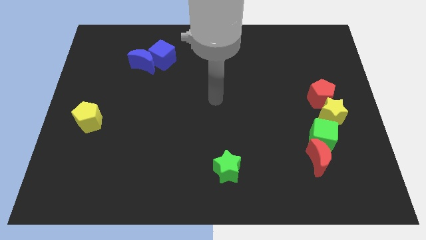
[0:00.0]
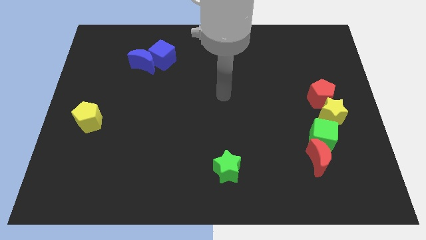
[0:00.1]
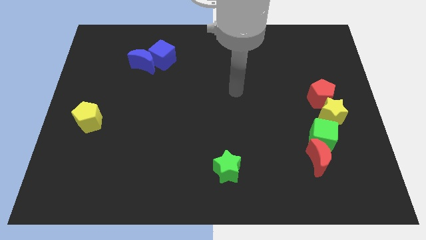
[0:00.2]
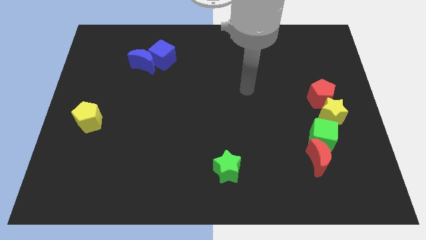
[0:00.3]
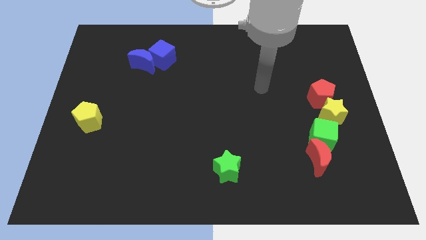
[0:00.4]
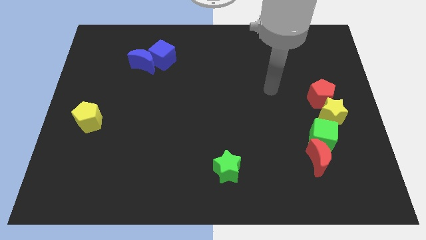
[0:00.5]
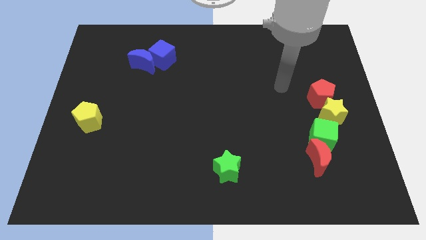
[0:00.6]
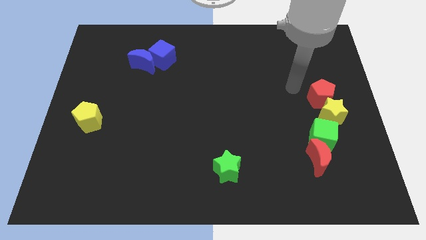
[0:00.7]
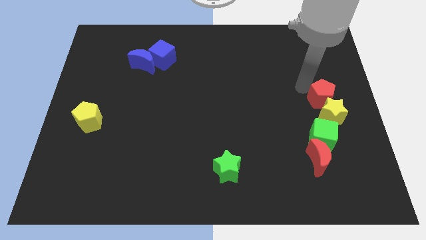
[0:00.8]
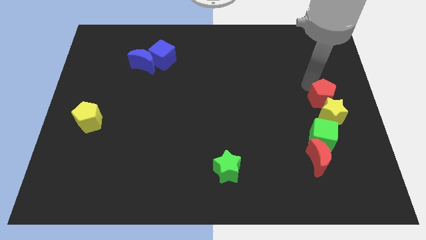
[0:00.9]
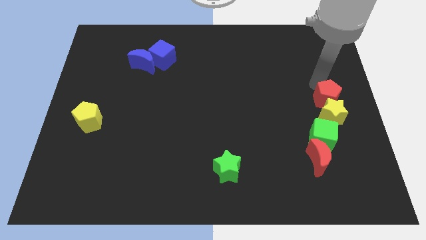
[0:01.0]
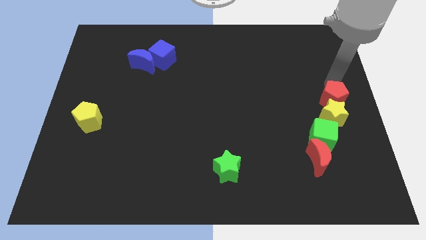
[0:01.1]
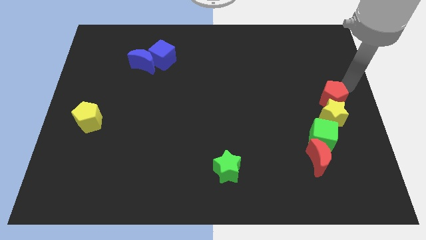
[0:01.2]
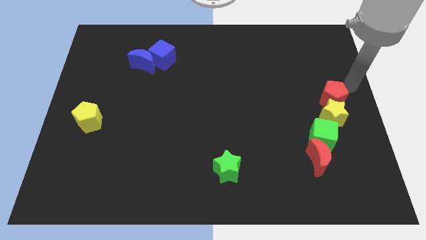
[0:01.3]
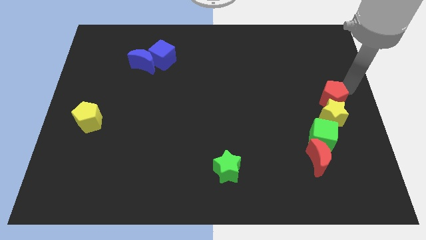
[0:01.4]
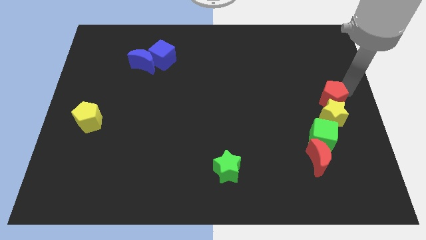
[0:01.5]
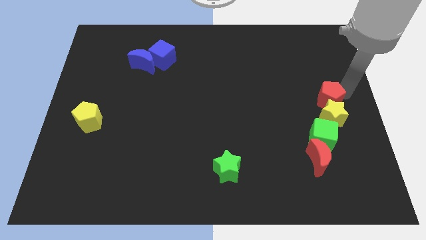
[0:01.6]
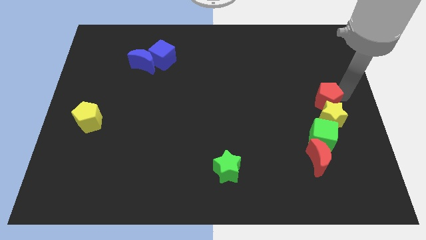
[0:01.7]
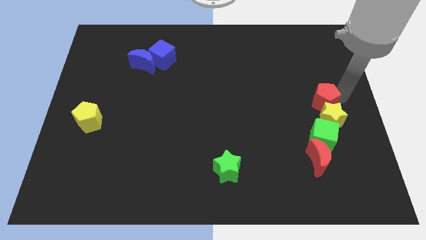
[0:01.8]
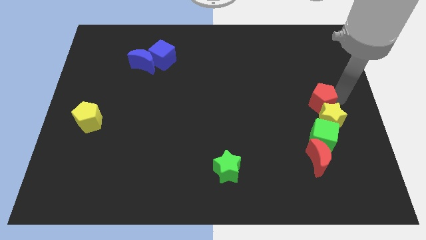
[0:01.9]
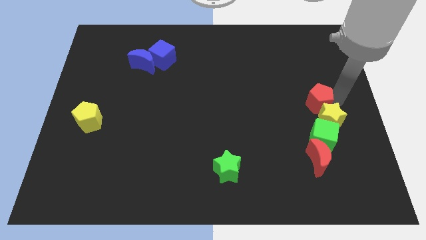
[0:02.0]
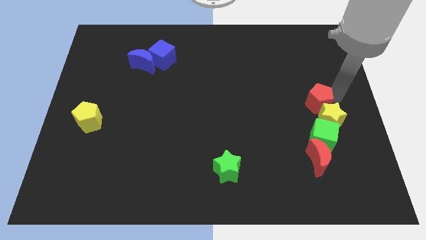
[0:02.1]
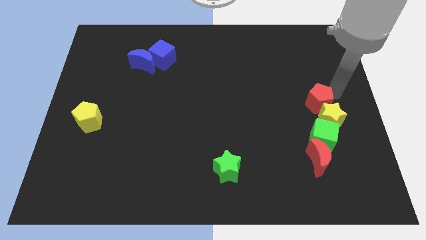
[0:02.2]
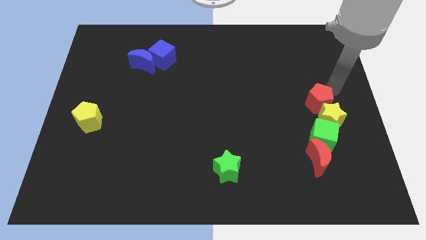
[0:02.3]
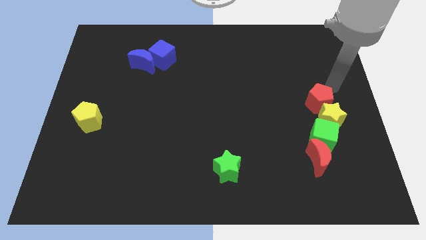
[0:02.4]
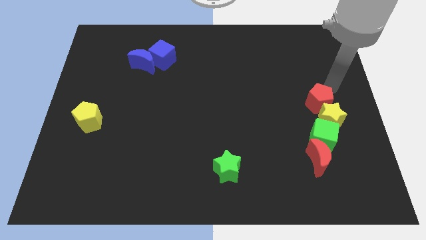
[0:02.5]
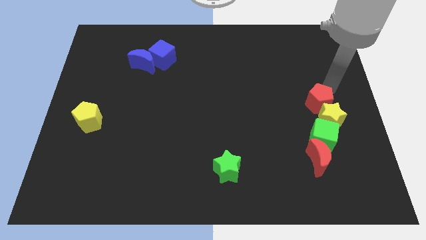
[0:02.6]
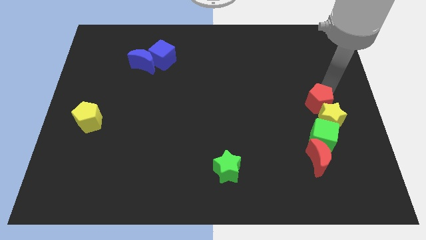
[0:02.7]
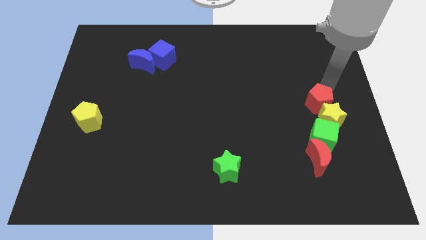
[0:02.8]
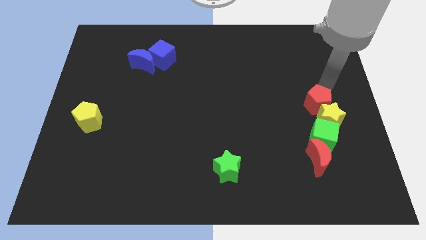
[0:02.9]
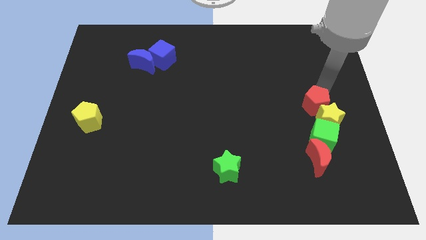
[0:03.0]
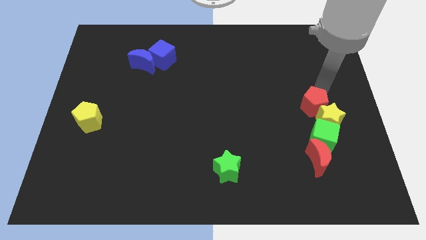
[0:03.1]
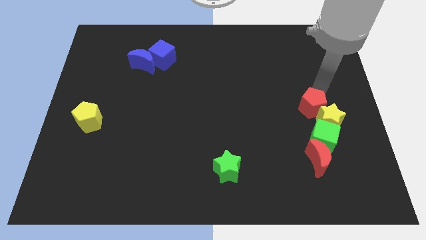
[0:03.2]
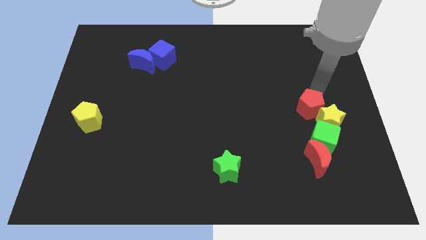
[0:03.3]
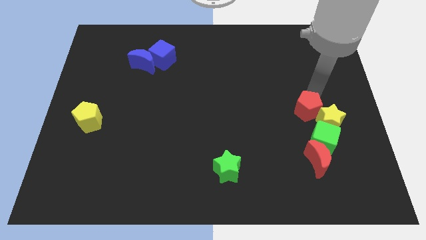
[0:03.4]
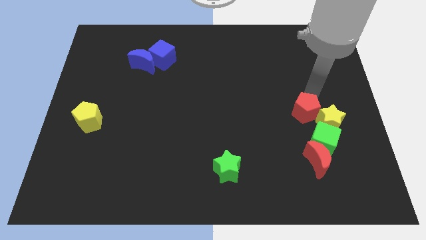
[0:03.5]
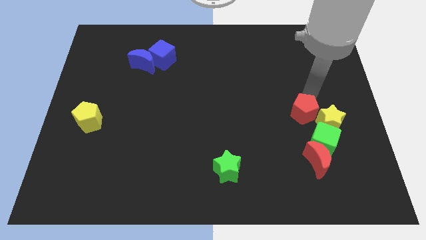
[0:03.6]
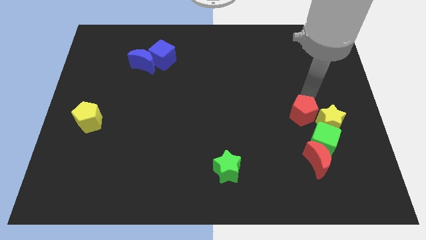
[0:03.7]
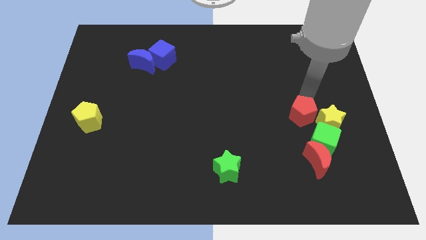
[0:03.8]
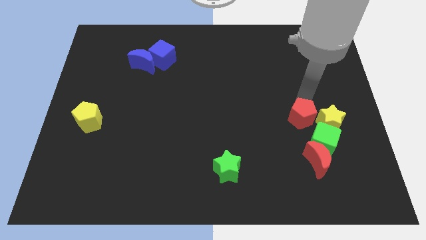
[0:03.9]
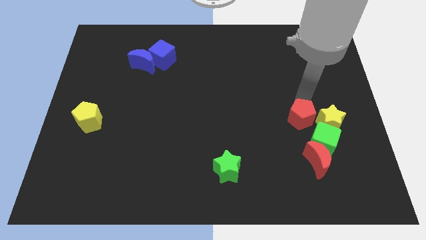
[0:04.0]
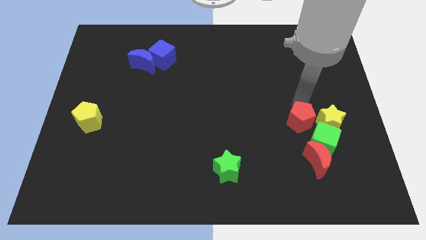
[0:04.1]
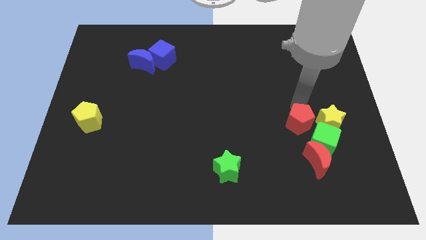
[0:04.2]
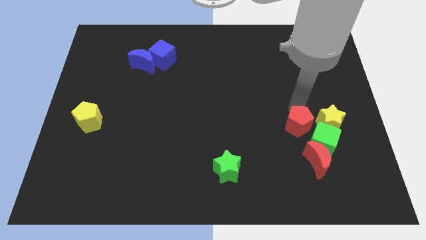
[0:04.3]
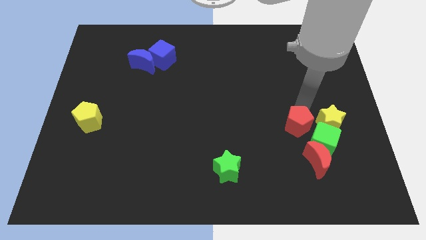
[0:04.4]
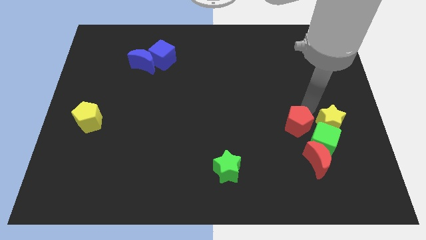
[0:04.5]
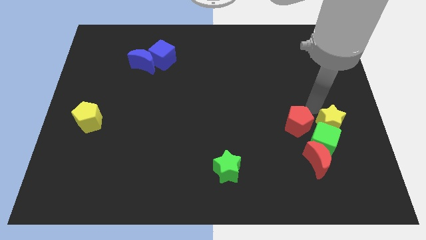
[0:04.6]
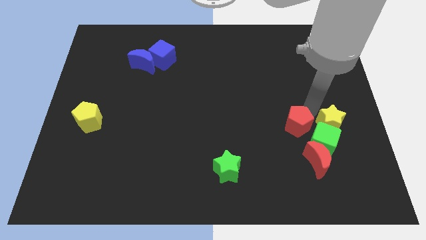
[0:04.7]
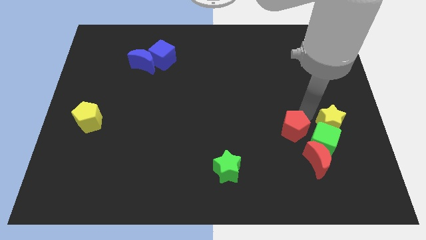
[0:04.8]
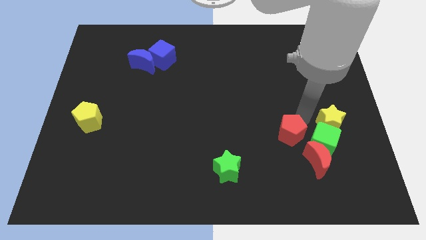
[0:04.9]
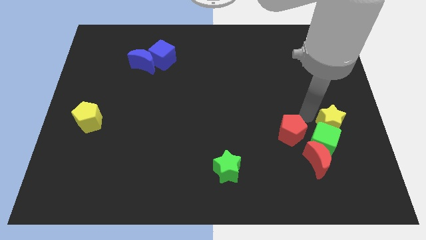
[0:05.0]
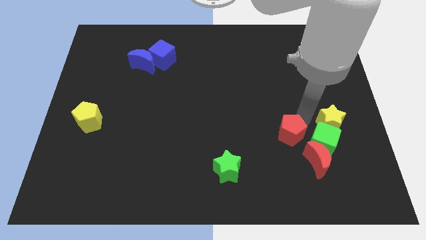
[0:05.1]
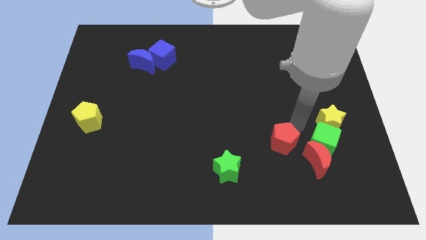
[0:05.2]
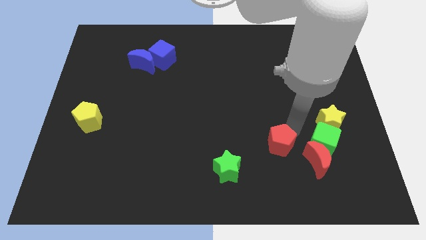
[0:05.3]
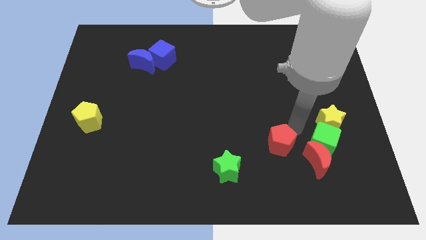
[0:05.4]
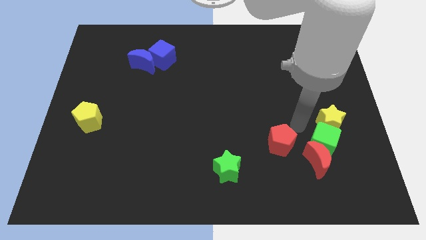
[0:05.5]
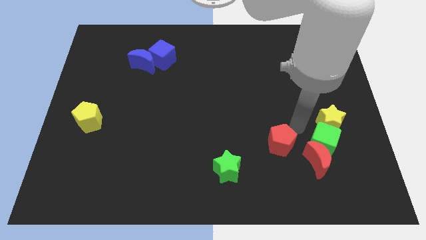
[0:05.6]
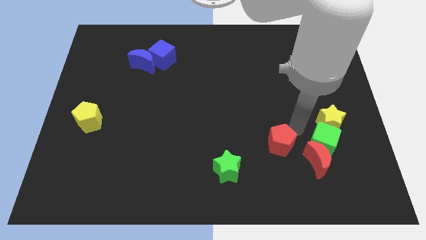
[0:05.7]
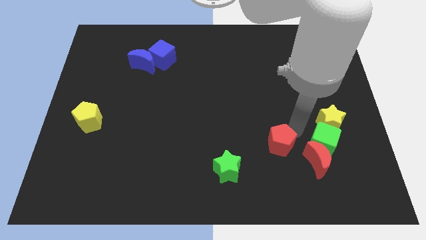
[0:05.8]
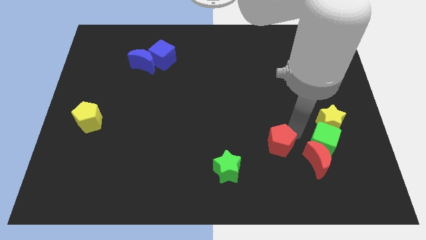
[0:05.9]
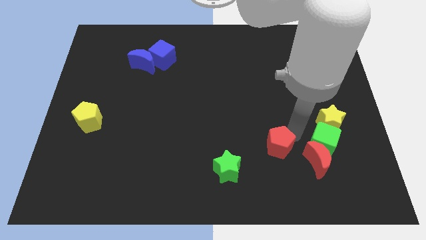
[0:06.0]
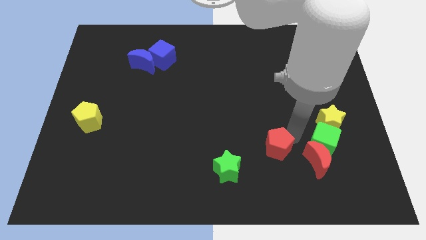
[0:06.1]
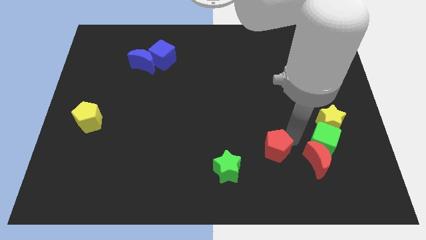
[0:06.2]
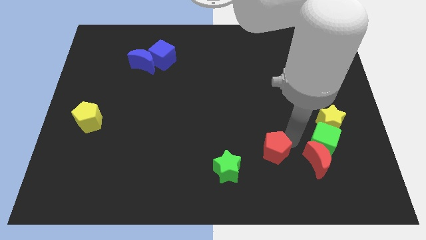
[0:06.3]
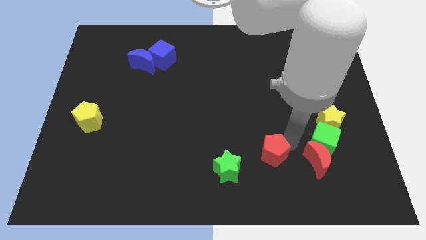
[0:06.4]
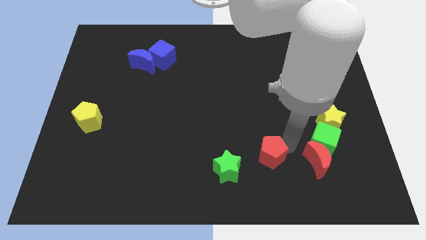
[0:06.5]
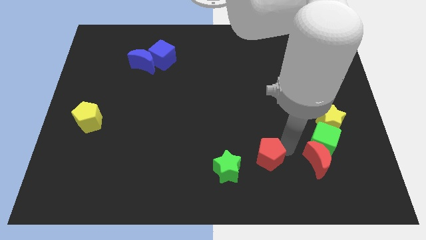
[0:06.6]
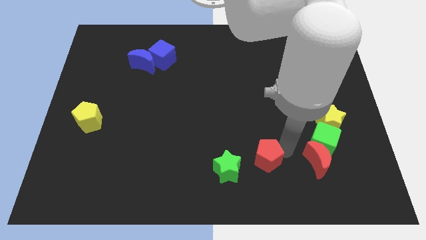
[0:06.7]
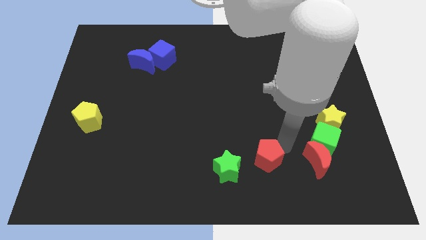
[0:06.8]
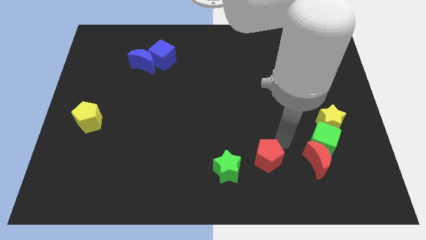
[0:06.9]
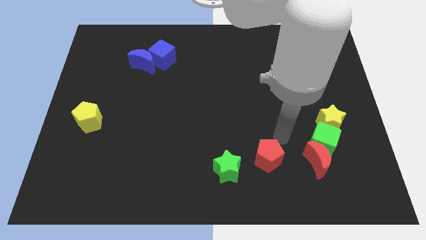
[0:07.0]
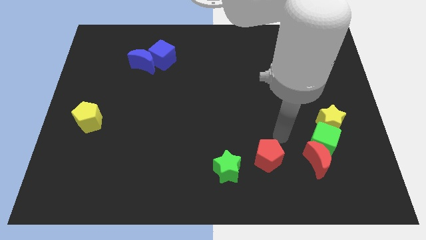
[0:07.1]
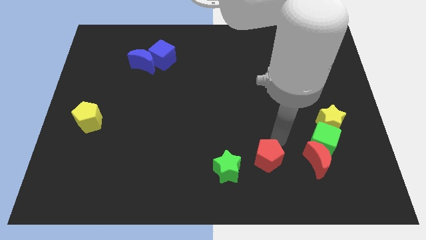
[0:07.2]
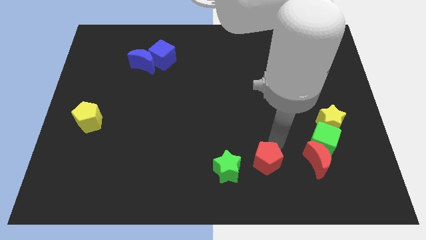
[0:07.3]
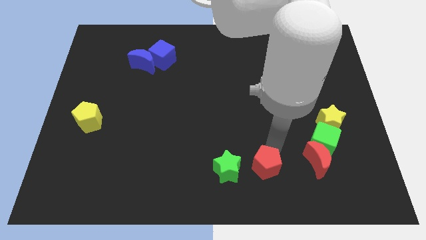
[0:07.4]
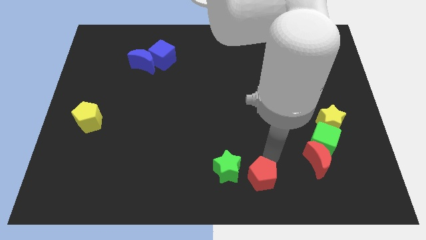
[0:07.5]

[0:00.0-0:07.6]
slide the red pentagon to the bottom
